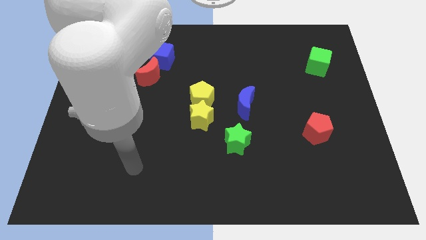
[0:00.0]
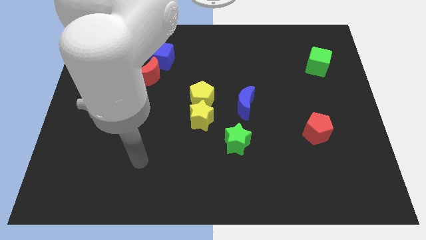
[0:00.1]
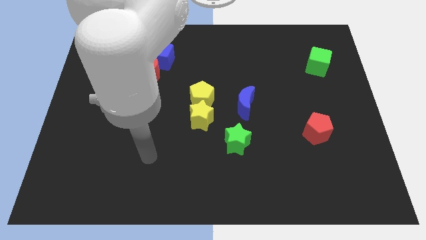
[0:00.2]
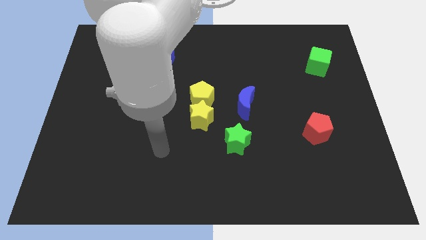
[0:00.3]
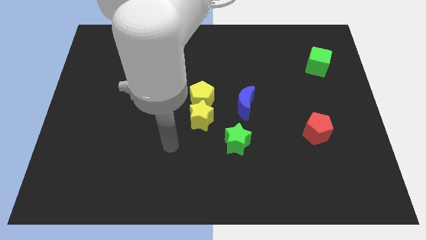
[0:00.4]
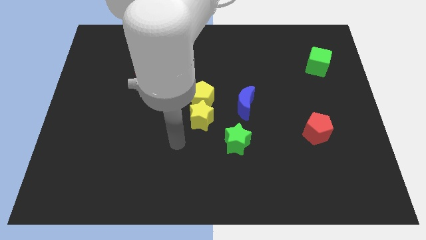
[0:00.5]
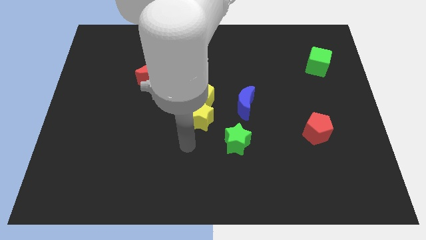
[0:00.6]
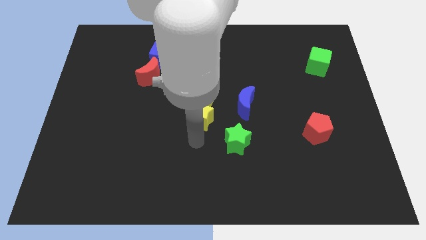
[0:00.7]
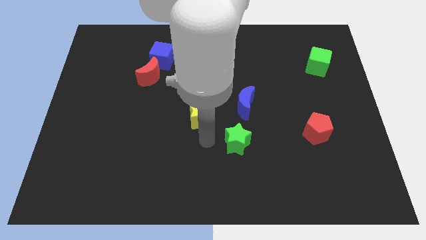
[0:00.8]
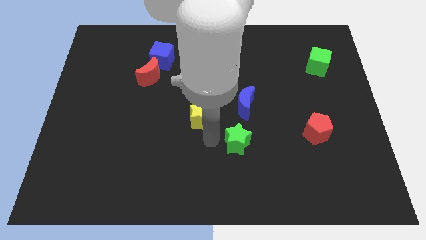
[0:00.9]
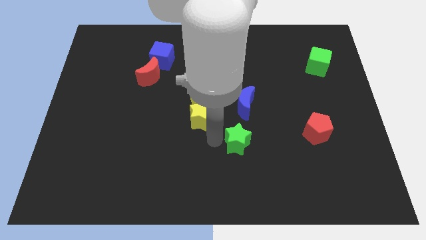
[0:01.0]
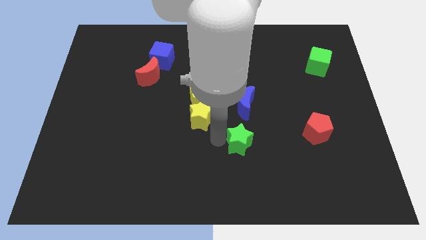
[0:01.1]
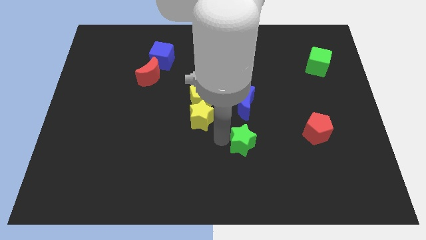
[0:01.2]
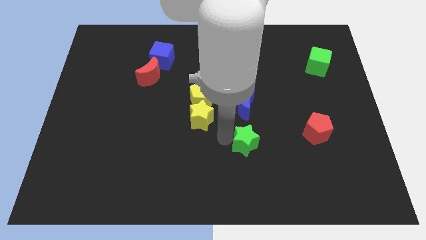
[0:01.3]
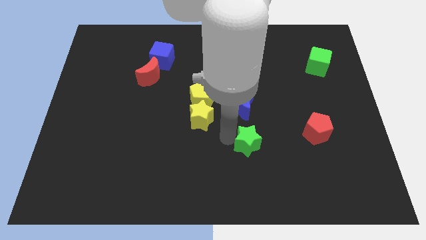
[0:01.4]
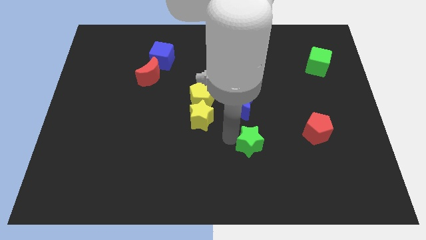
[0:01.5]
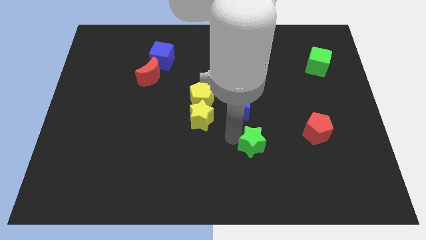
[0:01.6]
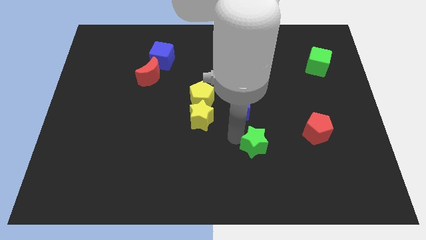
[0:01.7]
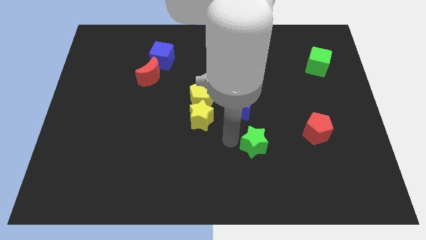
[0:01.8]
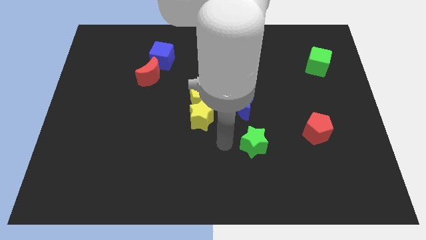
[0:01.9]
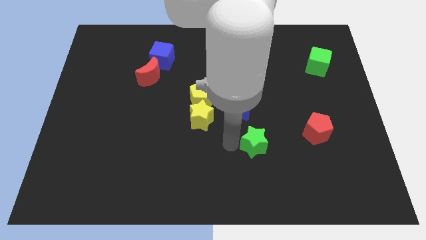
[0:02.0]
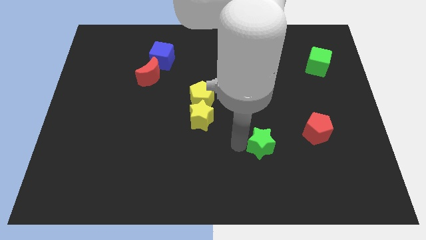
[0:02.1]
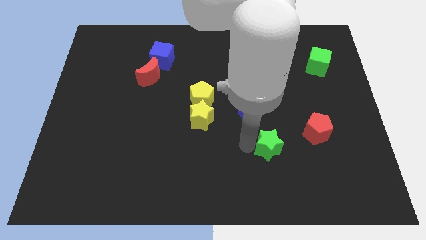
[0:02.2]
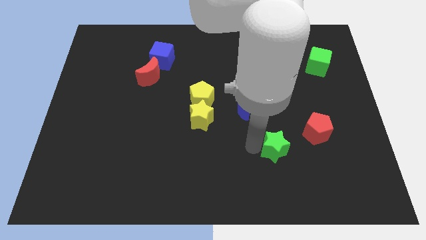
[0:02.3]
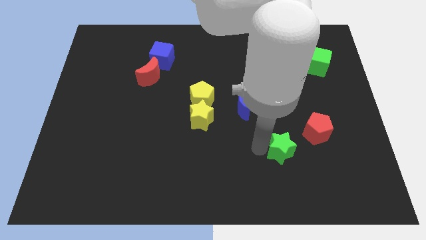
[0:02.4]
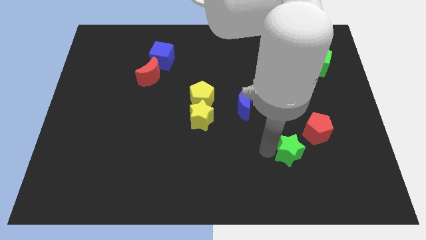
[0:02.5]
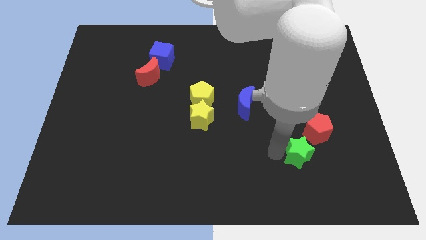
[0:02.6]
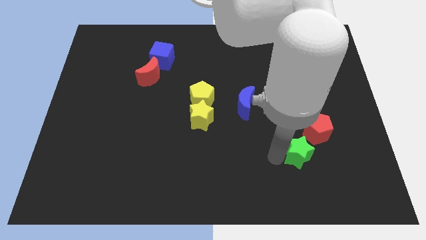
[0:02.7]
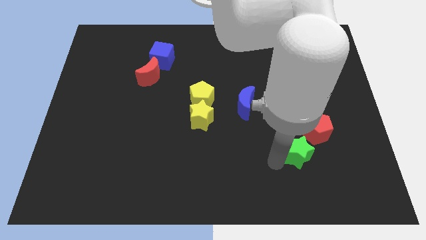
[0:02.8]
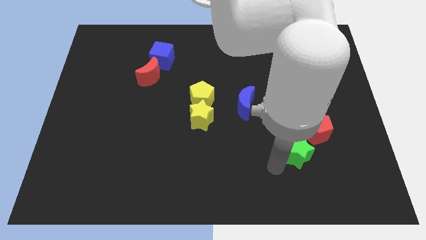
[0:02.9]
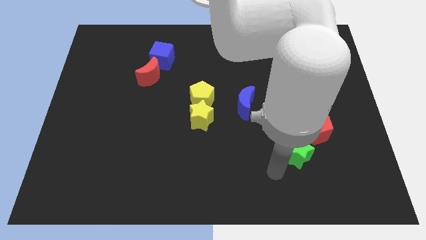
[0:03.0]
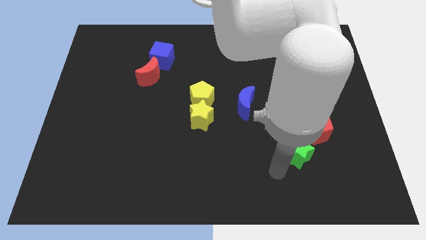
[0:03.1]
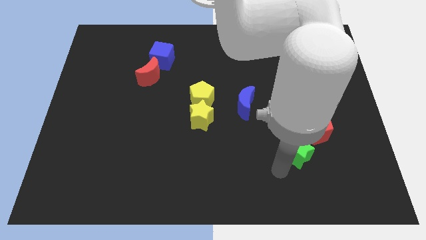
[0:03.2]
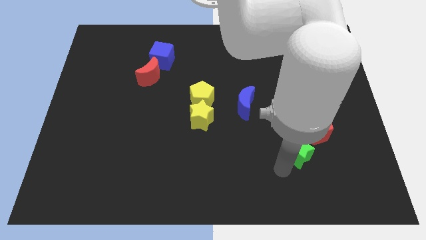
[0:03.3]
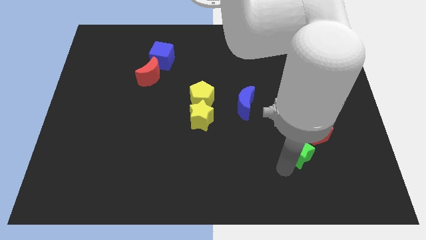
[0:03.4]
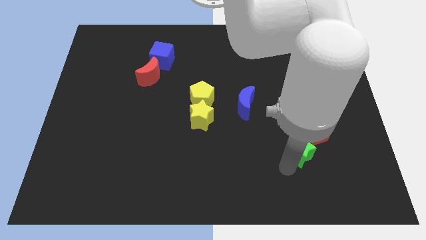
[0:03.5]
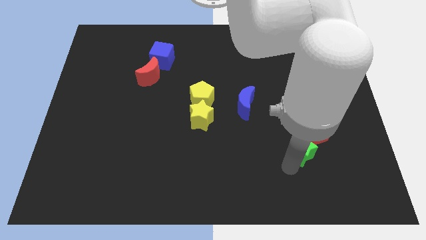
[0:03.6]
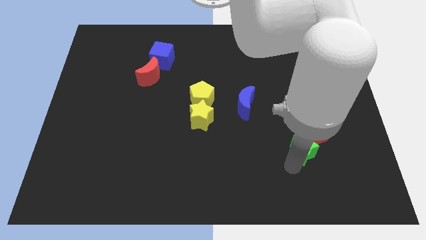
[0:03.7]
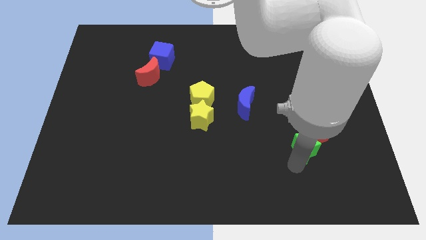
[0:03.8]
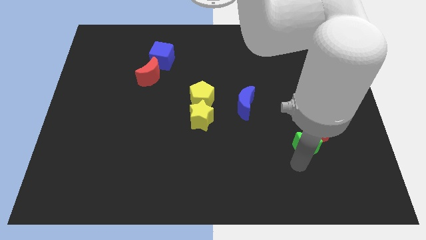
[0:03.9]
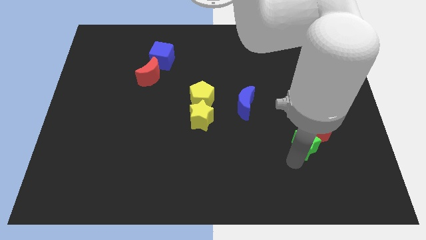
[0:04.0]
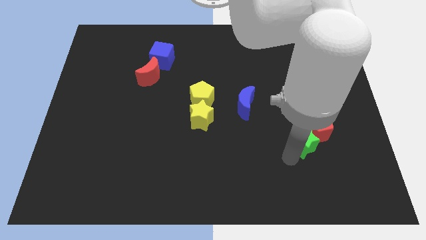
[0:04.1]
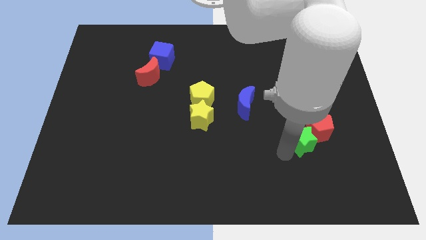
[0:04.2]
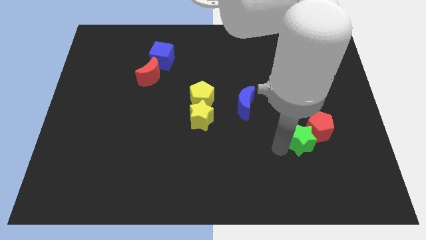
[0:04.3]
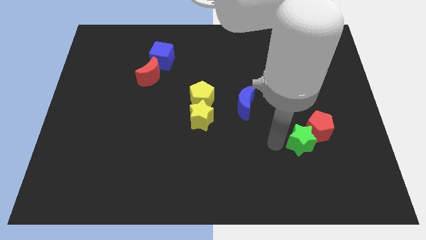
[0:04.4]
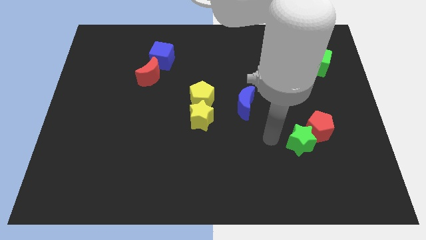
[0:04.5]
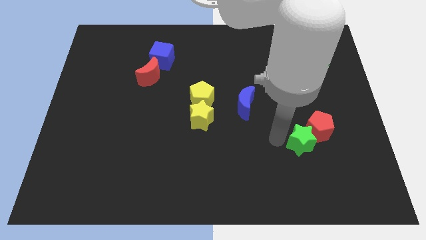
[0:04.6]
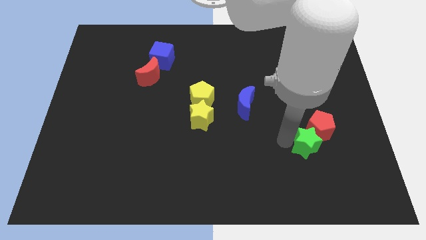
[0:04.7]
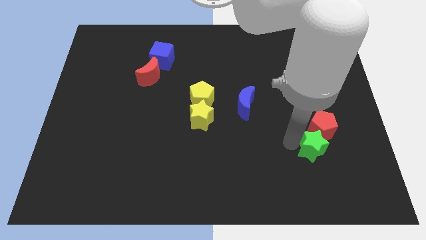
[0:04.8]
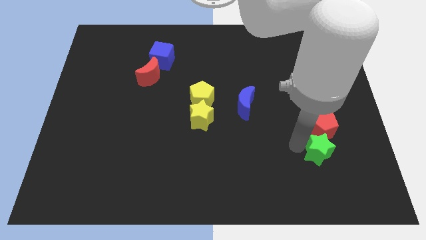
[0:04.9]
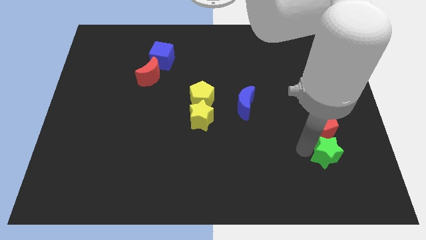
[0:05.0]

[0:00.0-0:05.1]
push the green star diagonally down and to the right of the red pentagon

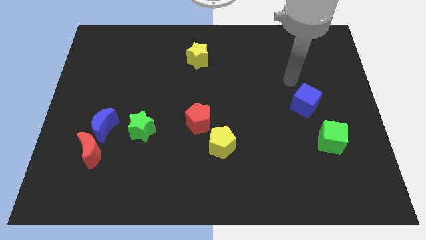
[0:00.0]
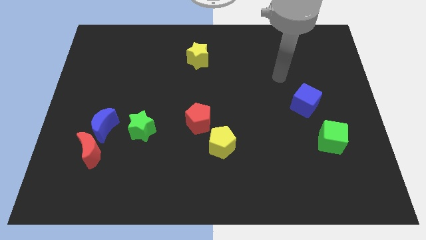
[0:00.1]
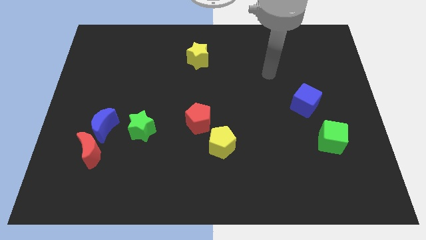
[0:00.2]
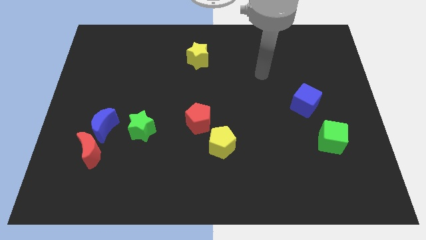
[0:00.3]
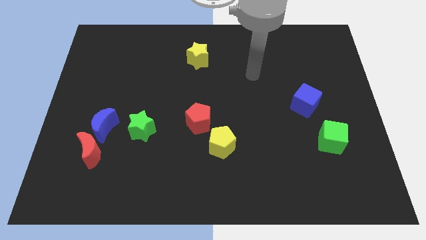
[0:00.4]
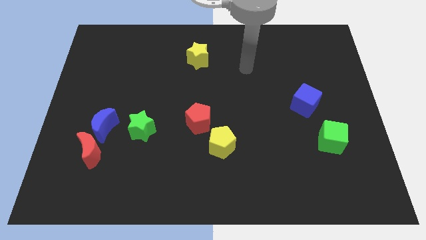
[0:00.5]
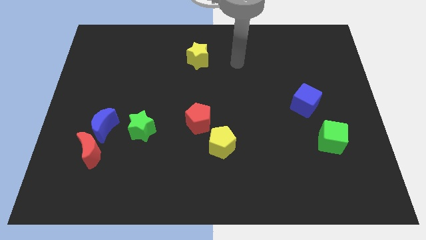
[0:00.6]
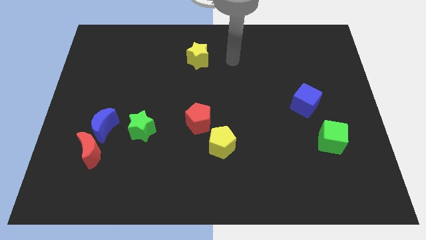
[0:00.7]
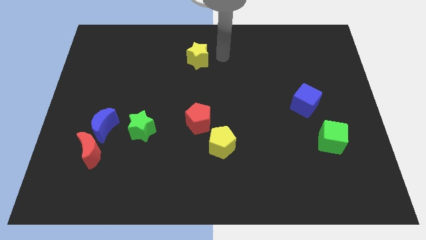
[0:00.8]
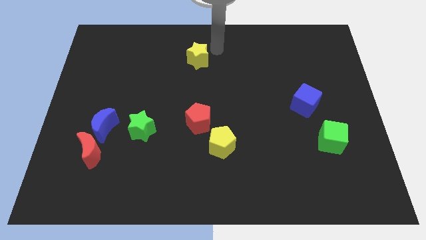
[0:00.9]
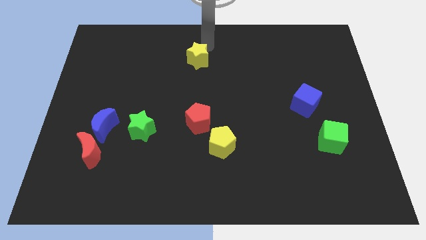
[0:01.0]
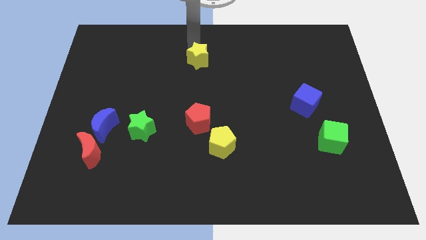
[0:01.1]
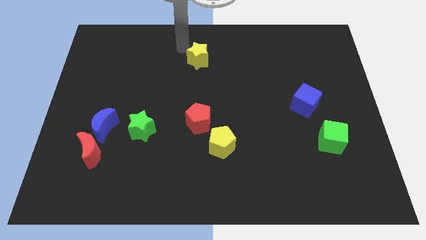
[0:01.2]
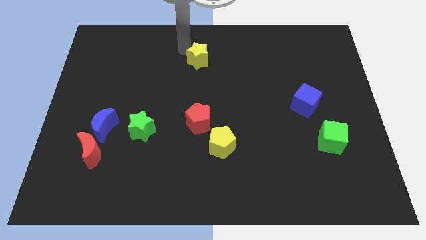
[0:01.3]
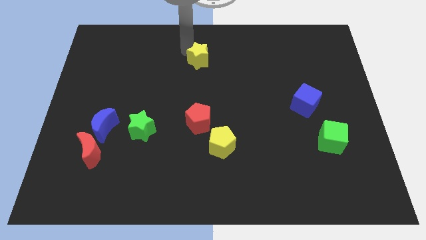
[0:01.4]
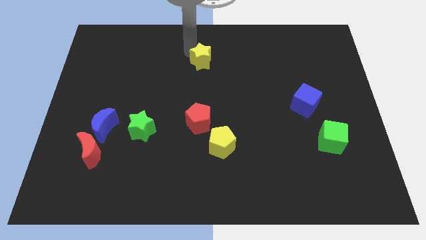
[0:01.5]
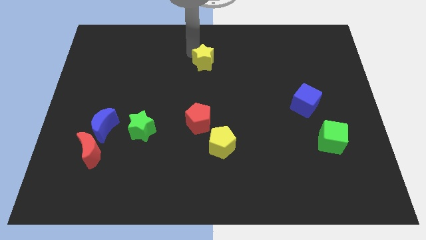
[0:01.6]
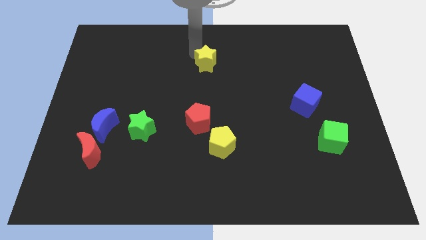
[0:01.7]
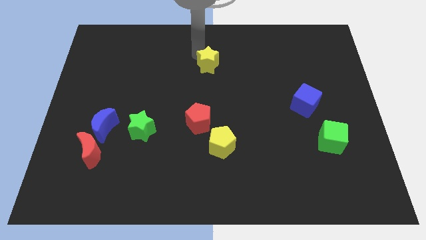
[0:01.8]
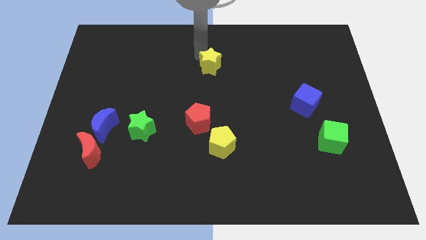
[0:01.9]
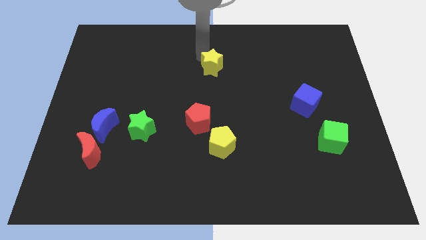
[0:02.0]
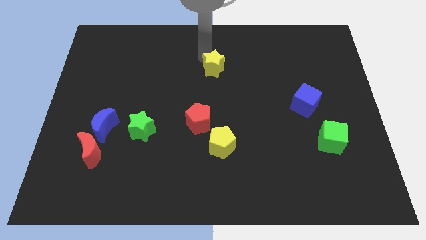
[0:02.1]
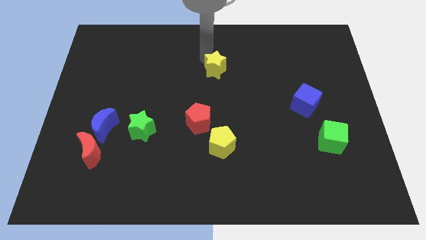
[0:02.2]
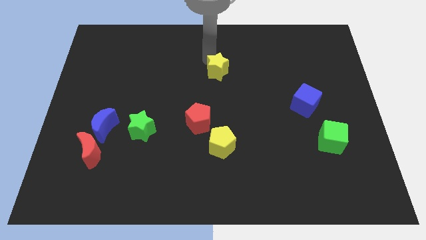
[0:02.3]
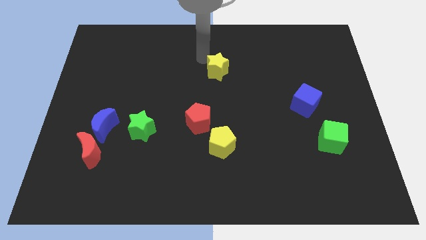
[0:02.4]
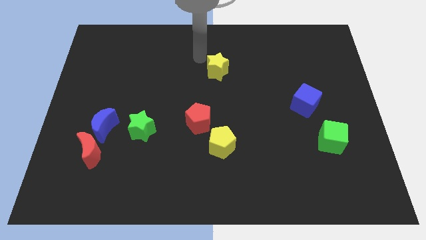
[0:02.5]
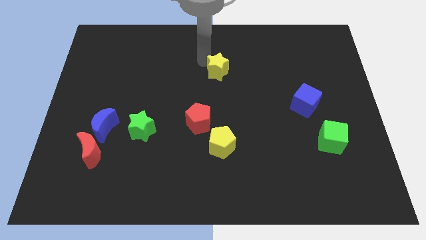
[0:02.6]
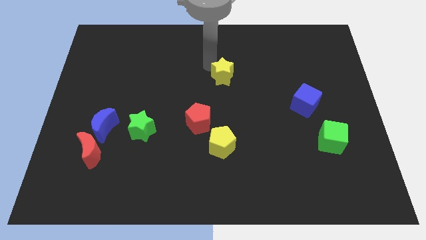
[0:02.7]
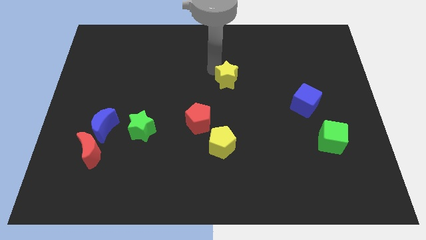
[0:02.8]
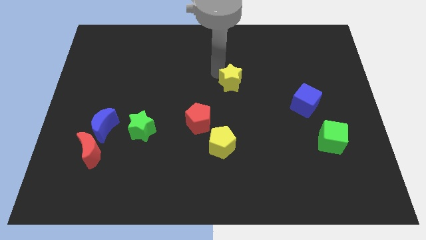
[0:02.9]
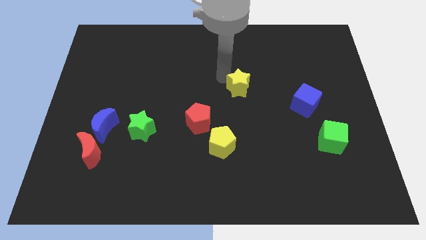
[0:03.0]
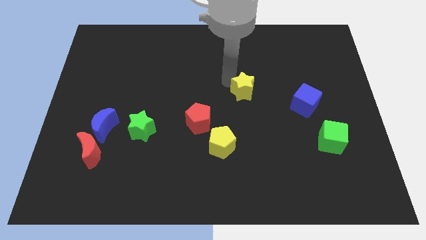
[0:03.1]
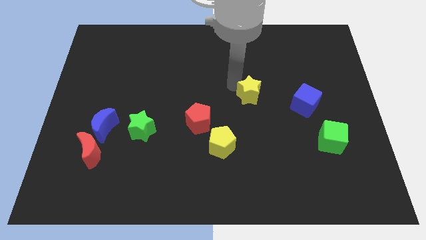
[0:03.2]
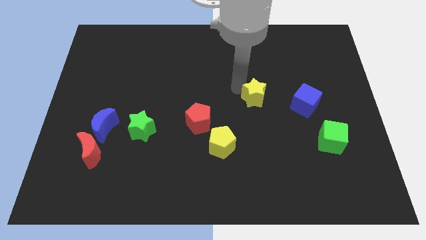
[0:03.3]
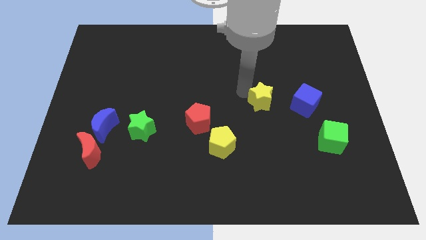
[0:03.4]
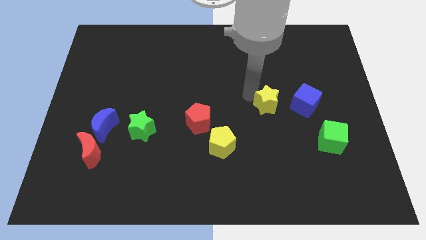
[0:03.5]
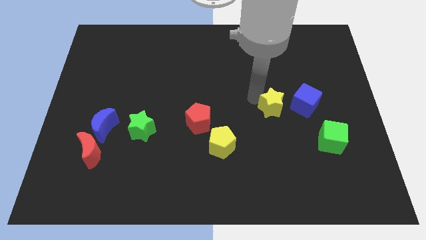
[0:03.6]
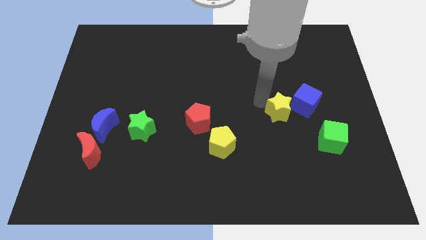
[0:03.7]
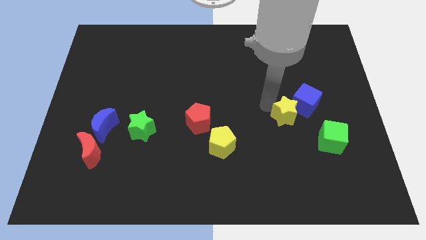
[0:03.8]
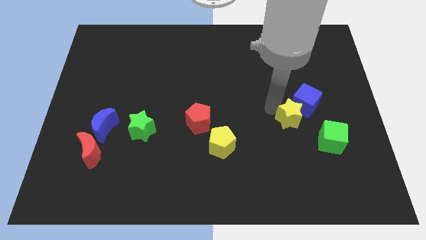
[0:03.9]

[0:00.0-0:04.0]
put the yellow star to the bottom side of the blue cube
